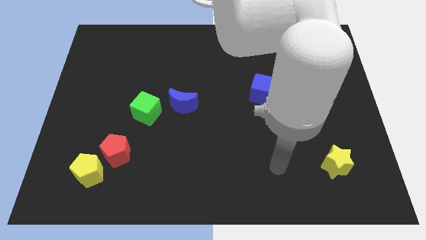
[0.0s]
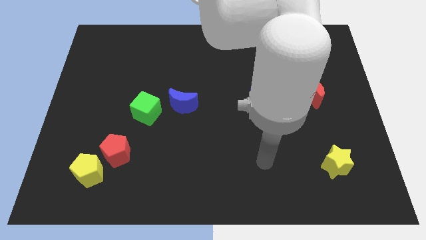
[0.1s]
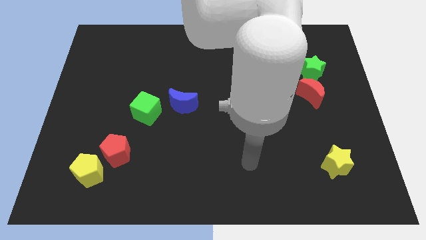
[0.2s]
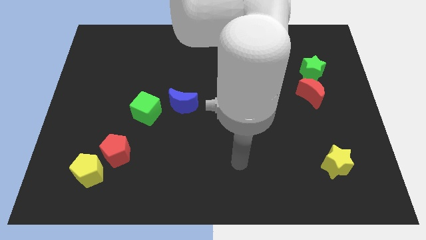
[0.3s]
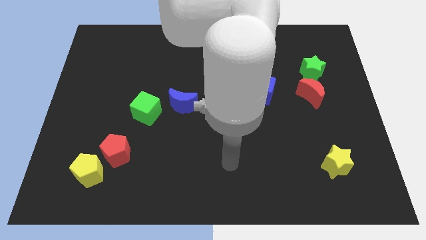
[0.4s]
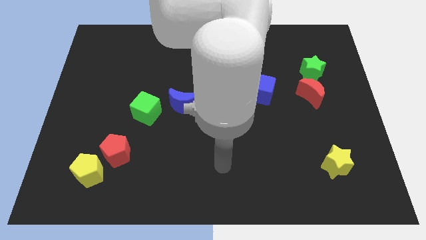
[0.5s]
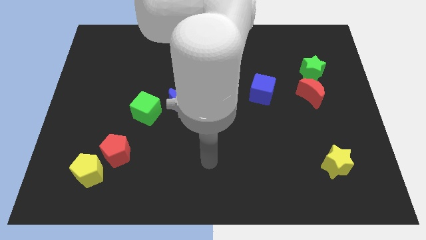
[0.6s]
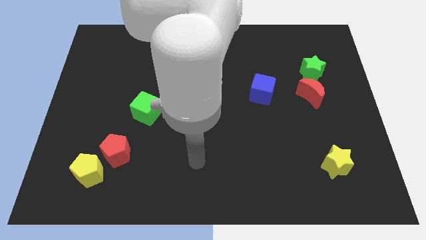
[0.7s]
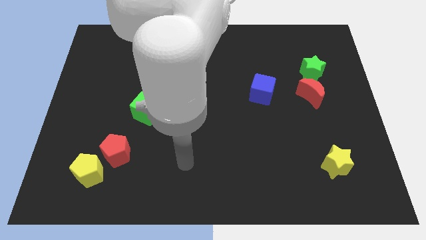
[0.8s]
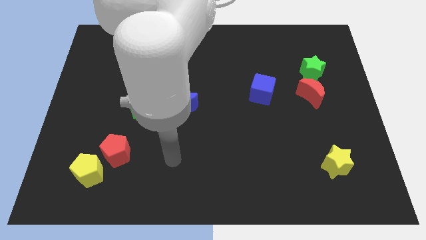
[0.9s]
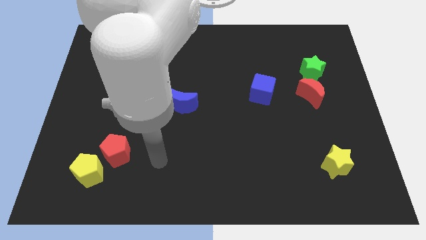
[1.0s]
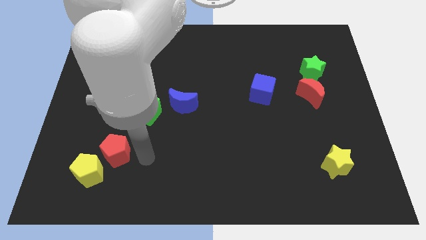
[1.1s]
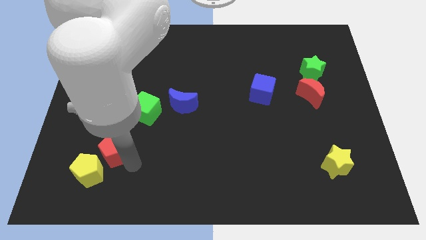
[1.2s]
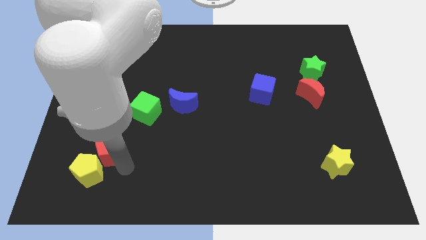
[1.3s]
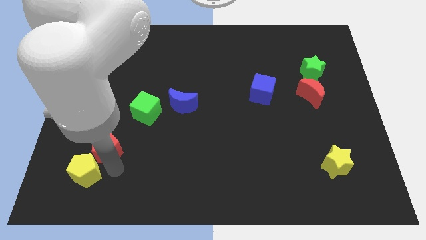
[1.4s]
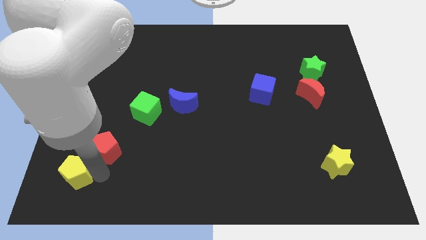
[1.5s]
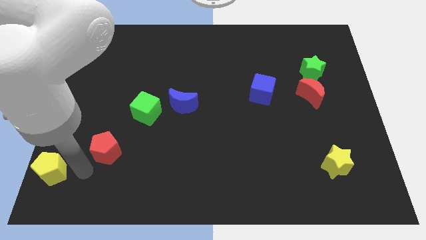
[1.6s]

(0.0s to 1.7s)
separate the red pentagon from the yellow pentagon

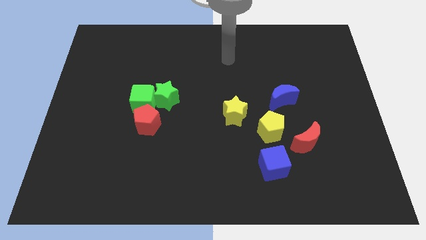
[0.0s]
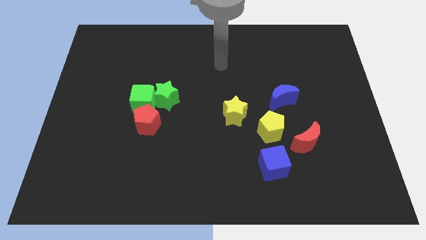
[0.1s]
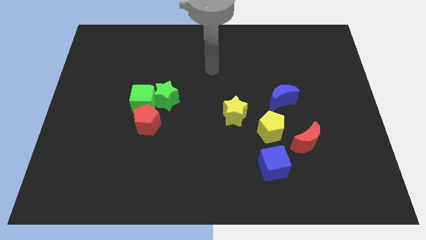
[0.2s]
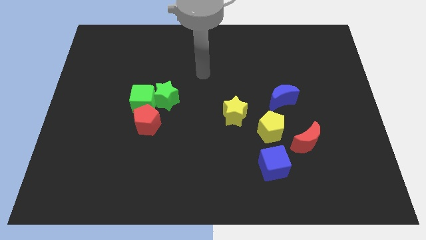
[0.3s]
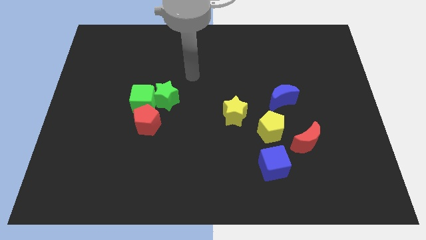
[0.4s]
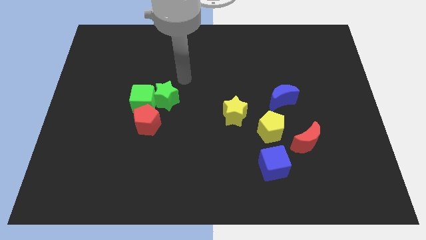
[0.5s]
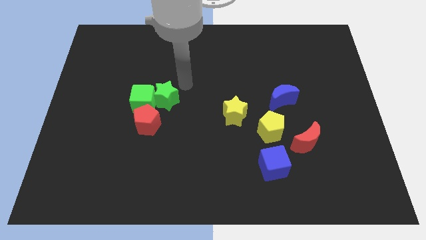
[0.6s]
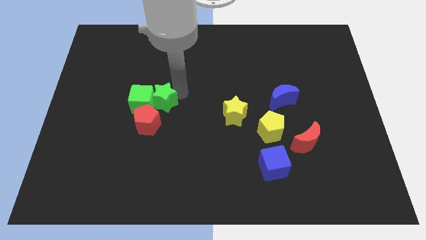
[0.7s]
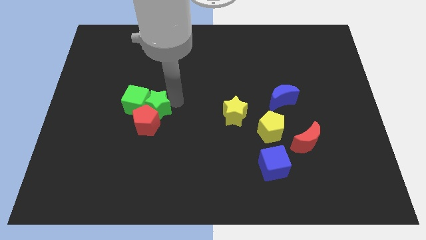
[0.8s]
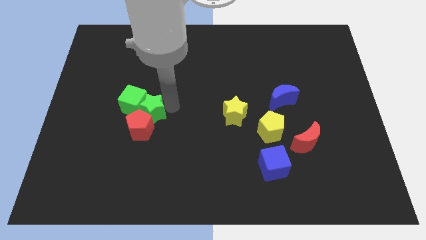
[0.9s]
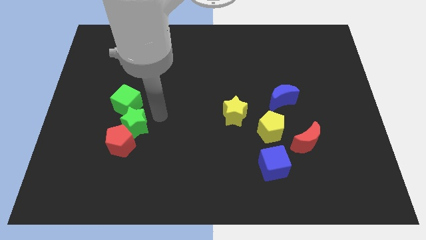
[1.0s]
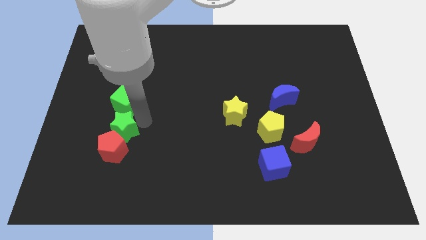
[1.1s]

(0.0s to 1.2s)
separate the green cube from the green star and red pentagon

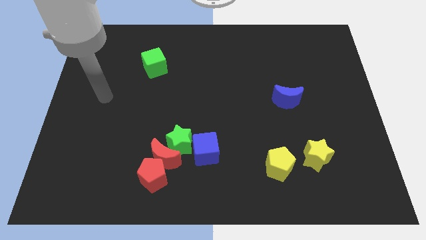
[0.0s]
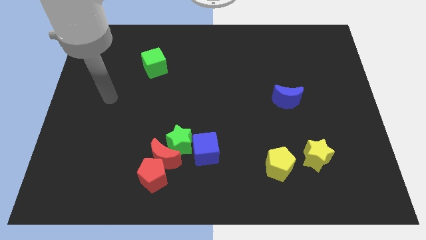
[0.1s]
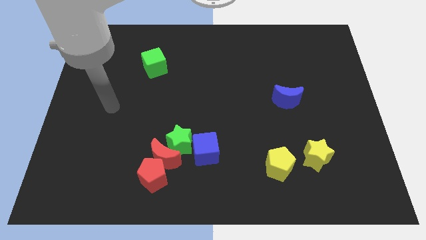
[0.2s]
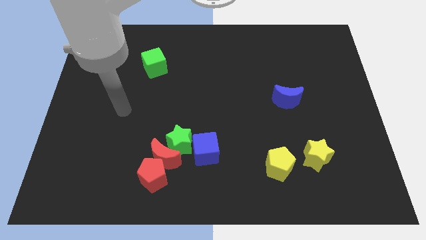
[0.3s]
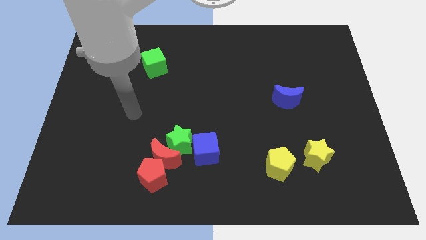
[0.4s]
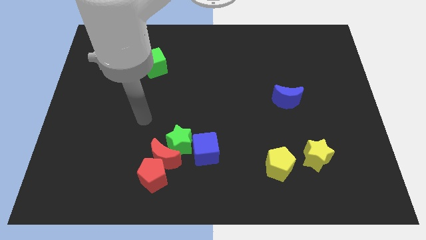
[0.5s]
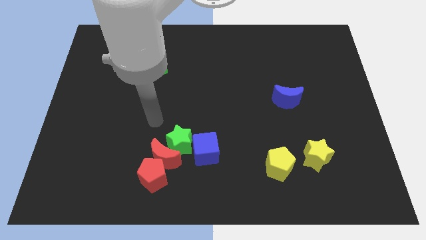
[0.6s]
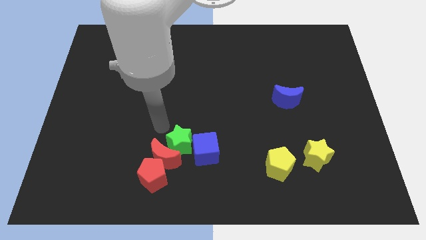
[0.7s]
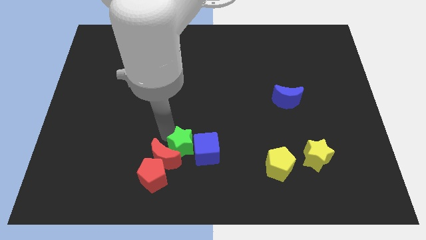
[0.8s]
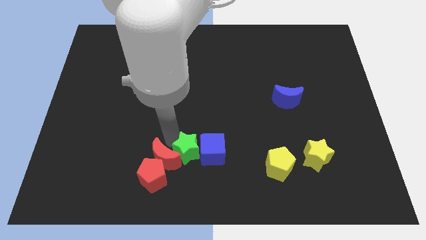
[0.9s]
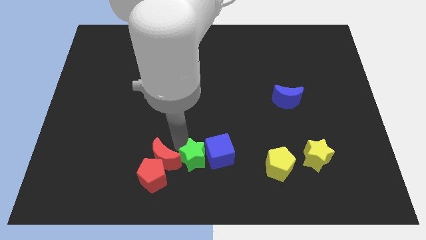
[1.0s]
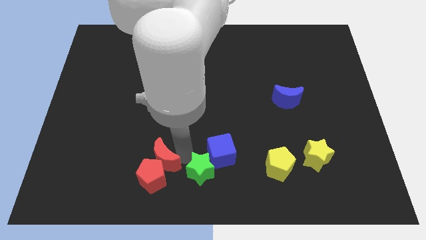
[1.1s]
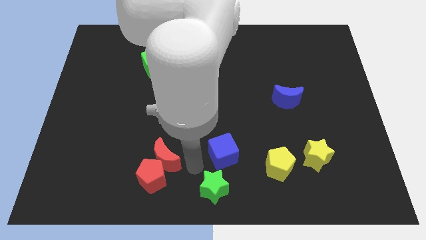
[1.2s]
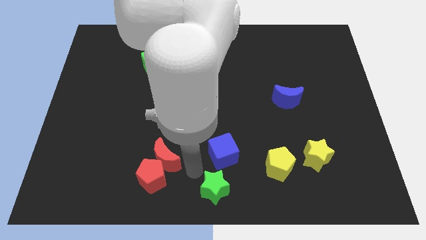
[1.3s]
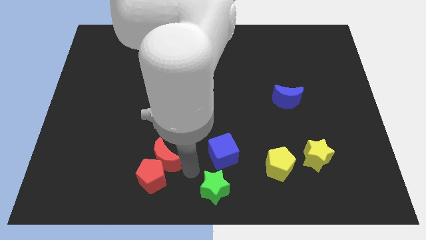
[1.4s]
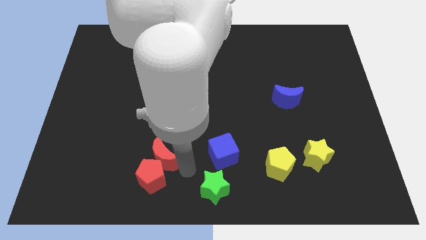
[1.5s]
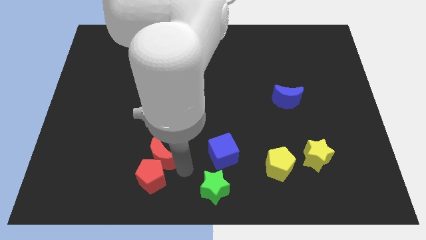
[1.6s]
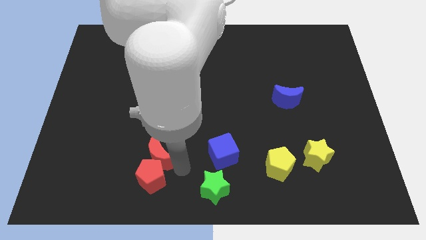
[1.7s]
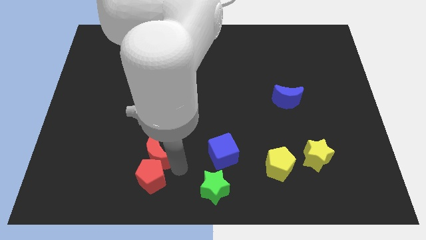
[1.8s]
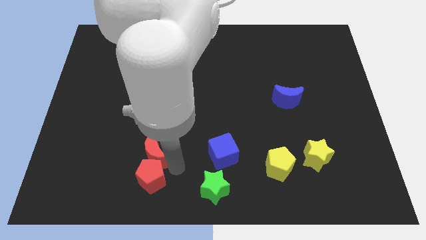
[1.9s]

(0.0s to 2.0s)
pull the red moon apart from the red pentagon, green star, and blue cube

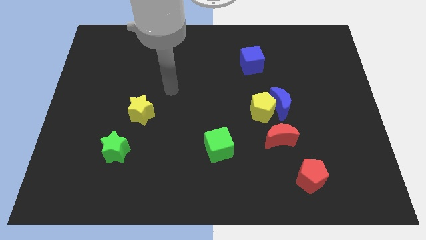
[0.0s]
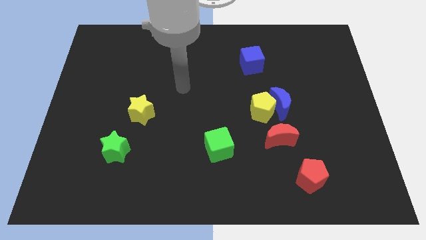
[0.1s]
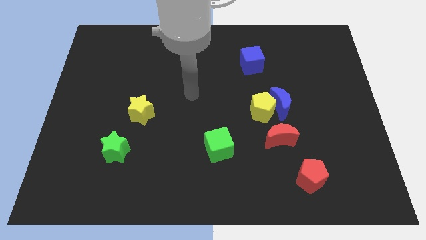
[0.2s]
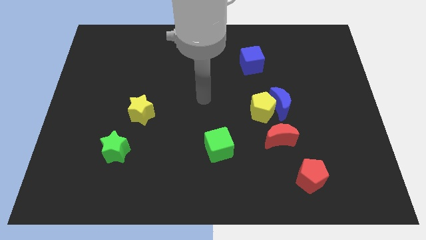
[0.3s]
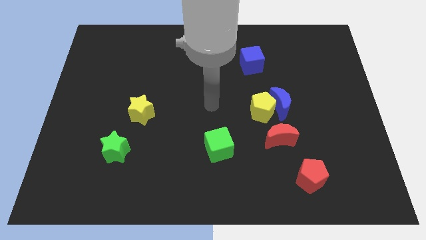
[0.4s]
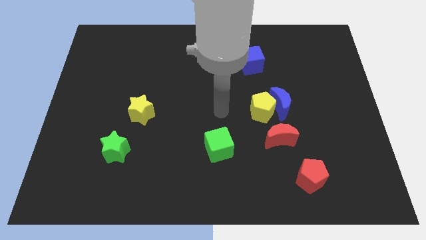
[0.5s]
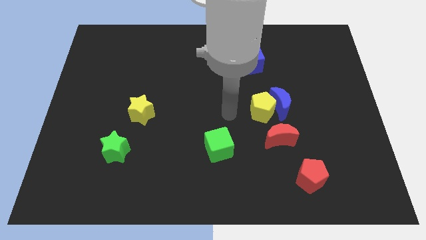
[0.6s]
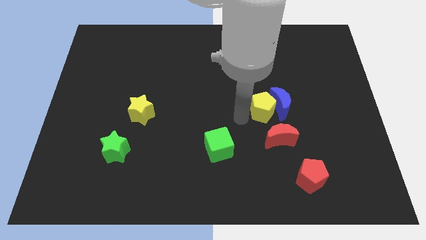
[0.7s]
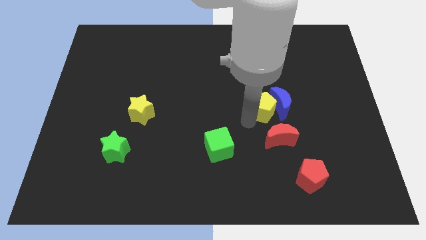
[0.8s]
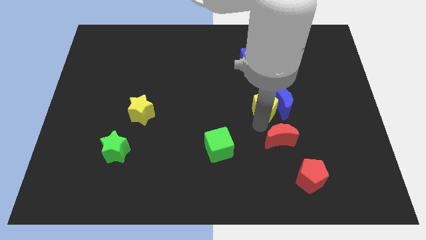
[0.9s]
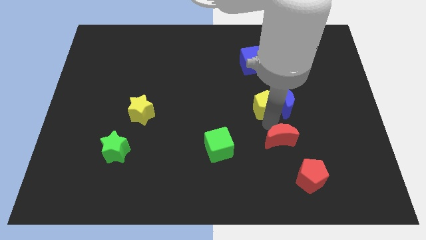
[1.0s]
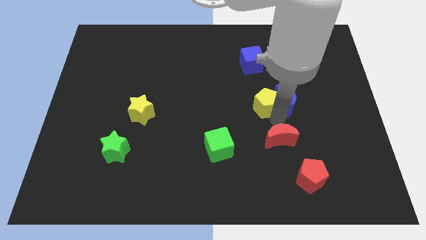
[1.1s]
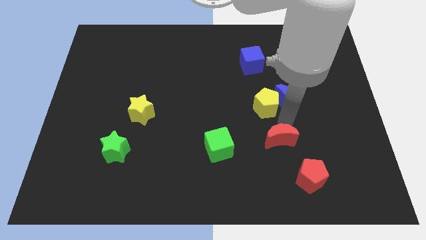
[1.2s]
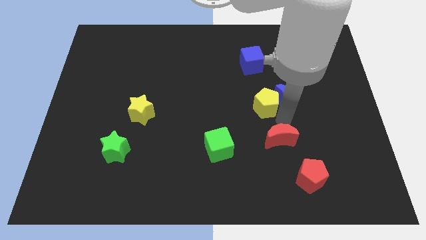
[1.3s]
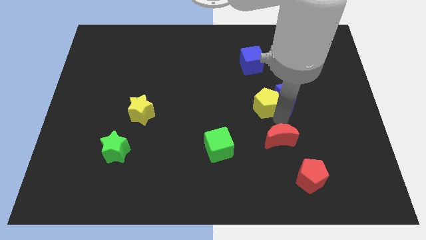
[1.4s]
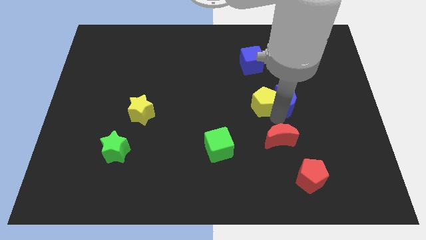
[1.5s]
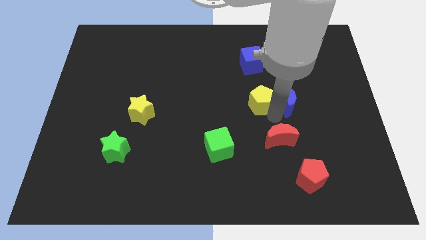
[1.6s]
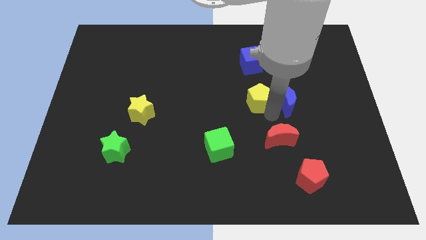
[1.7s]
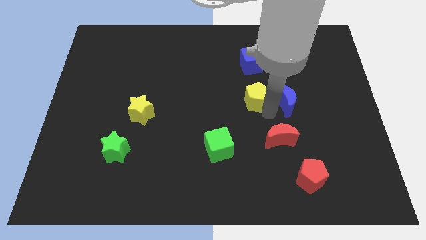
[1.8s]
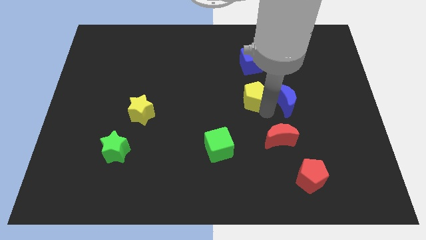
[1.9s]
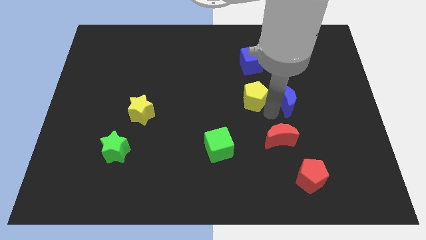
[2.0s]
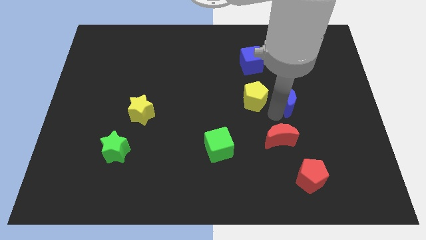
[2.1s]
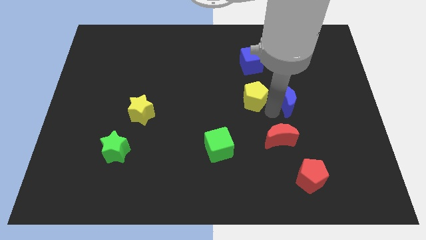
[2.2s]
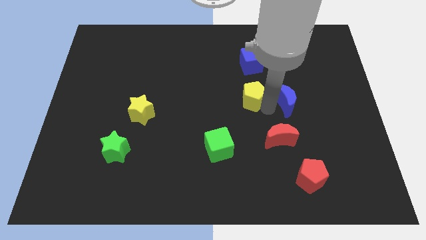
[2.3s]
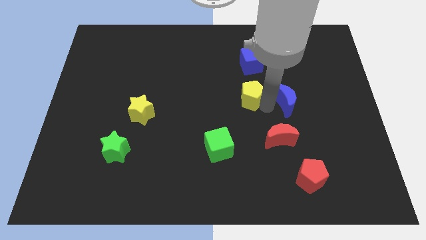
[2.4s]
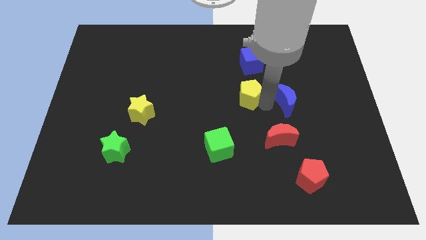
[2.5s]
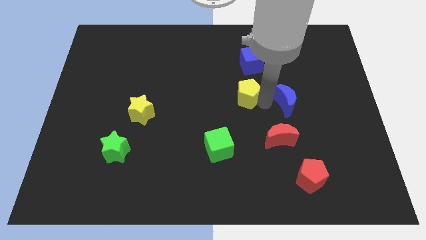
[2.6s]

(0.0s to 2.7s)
pull the yellow pentagon apart from the blue moon and red moon

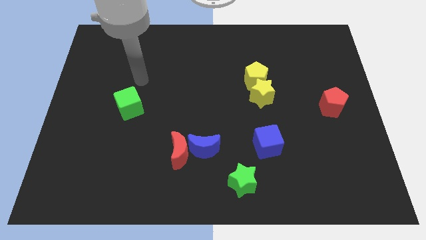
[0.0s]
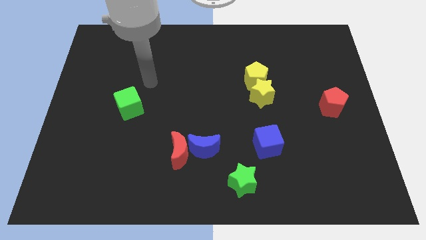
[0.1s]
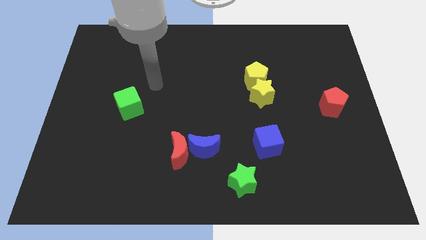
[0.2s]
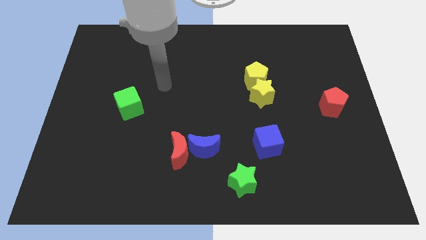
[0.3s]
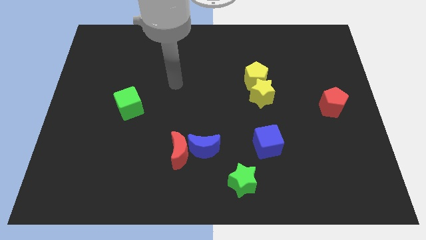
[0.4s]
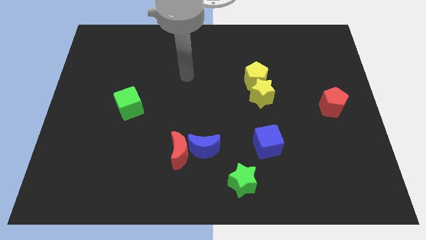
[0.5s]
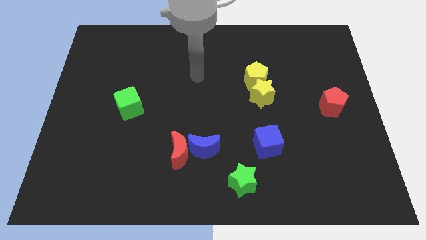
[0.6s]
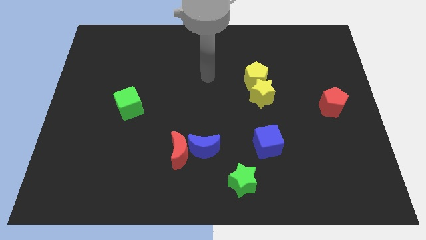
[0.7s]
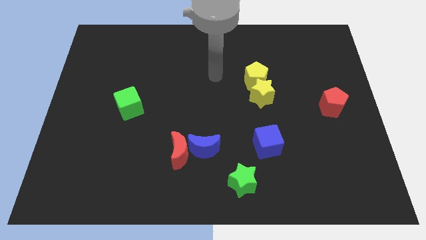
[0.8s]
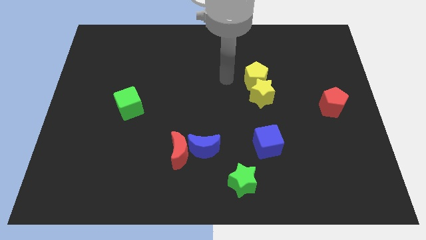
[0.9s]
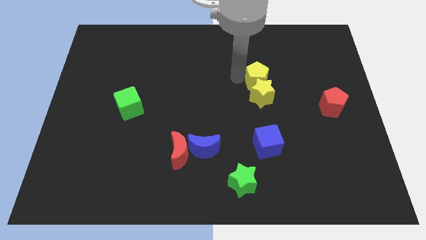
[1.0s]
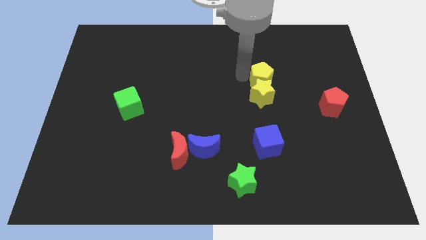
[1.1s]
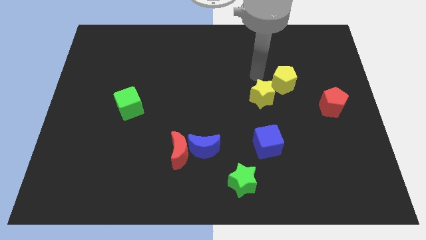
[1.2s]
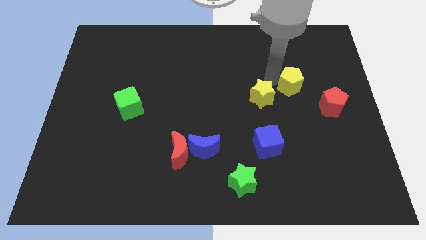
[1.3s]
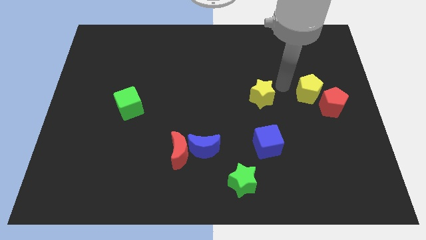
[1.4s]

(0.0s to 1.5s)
move the yellow star away from the yellow pentagon

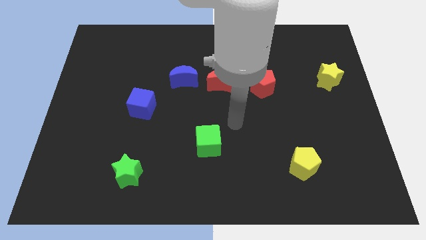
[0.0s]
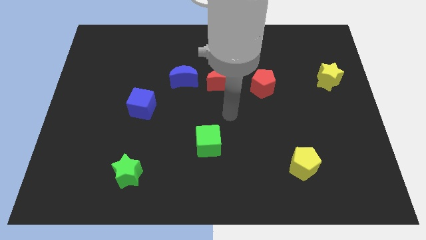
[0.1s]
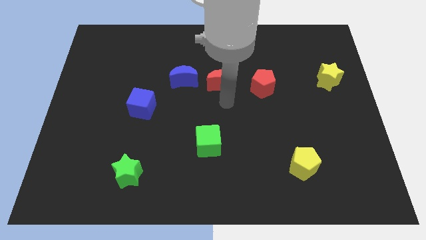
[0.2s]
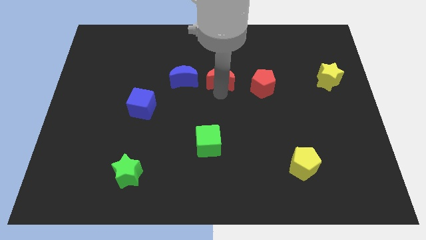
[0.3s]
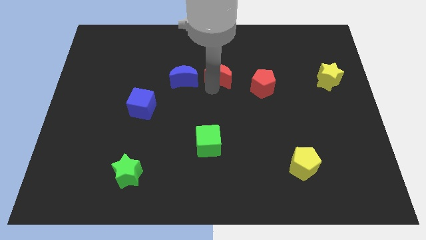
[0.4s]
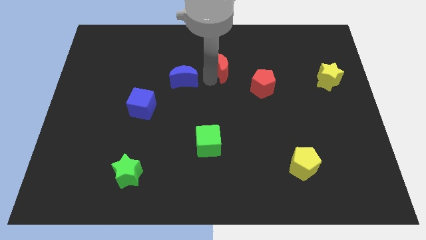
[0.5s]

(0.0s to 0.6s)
pull the blue moon apart from the red moon
